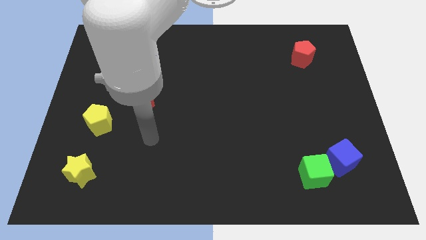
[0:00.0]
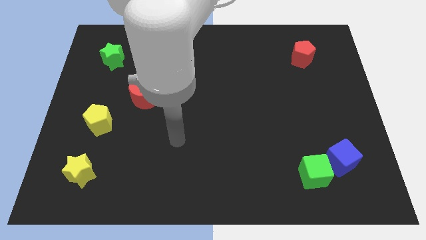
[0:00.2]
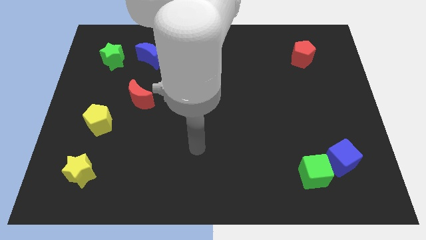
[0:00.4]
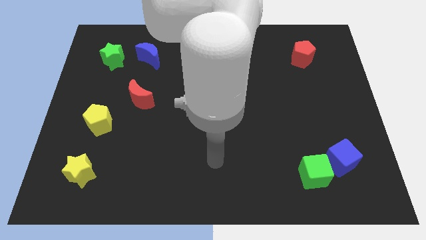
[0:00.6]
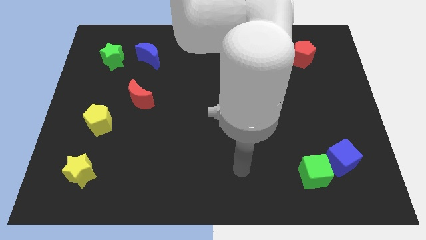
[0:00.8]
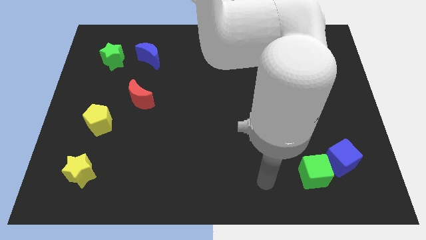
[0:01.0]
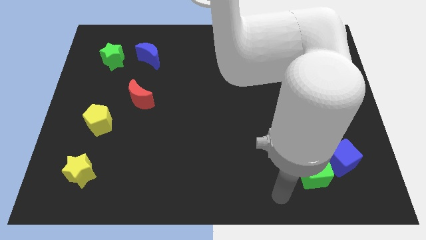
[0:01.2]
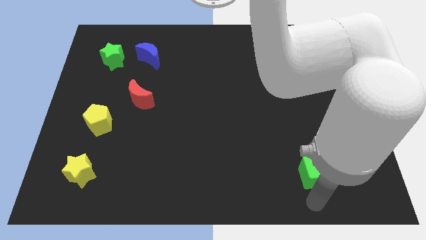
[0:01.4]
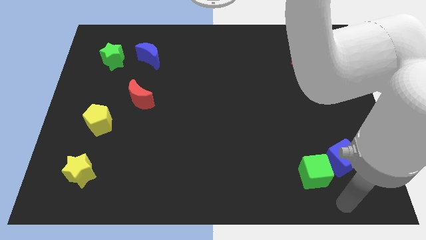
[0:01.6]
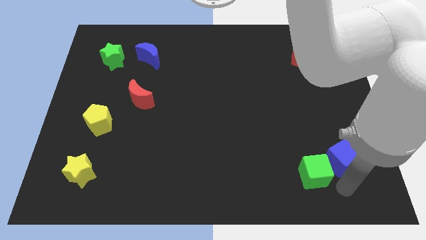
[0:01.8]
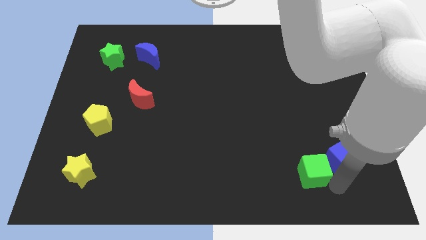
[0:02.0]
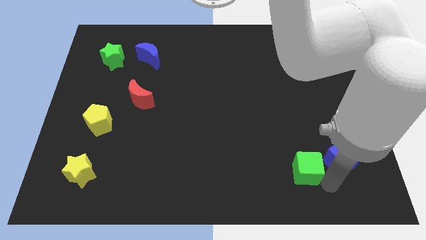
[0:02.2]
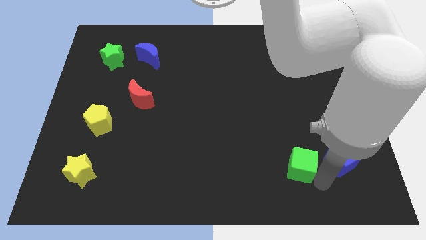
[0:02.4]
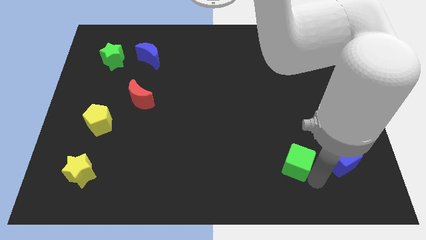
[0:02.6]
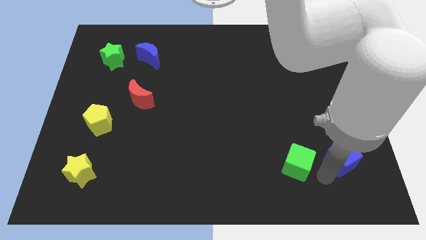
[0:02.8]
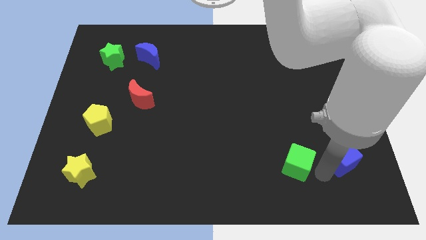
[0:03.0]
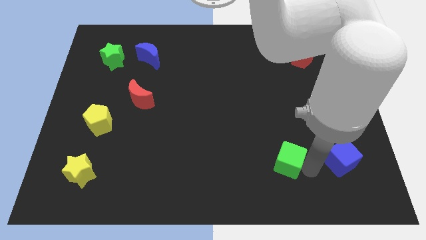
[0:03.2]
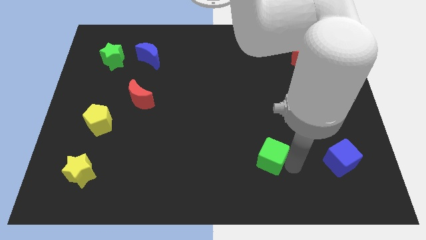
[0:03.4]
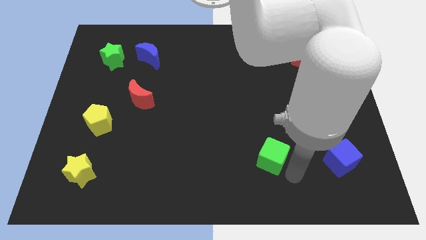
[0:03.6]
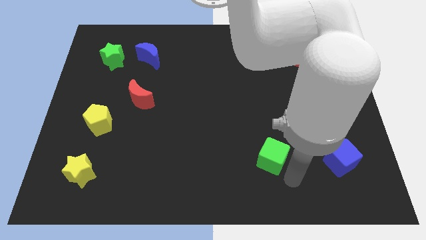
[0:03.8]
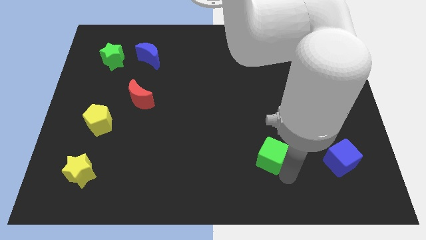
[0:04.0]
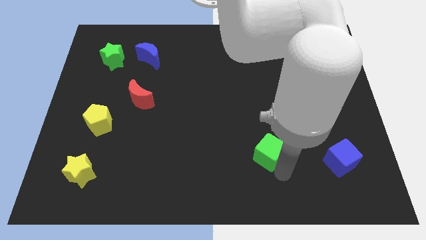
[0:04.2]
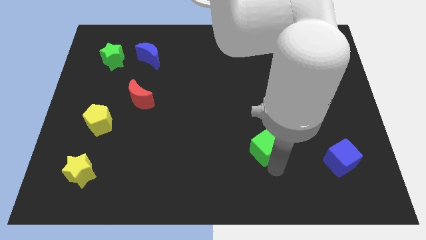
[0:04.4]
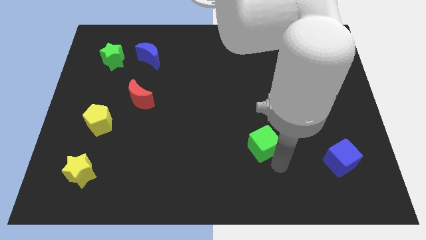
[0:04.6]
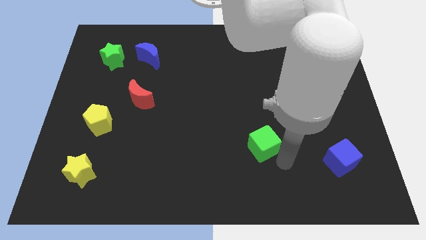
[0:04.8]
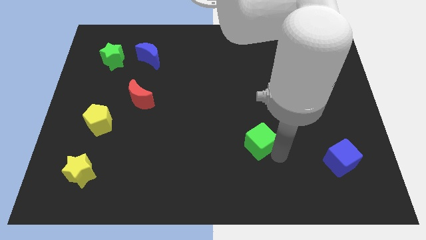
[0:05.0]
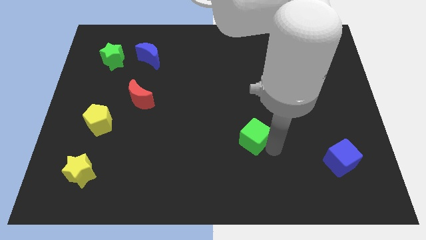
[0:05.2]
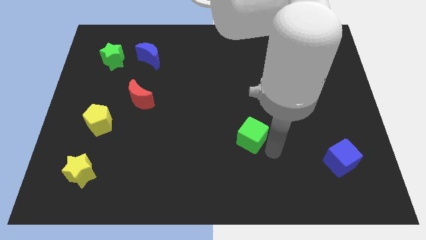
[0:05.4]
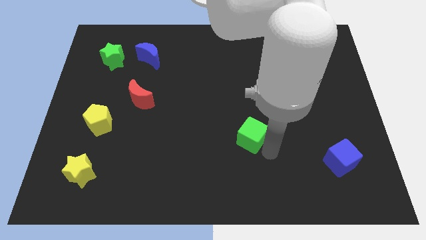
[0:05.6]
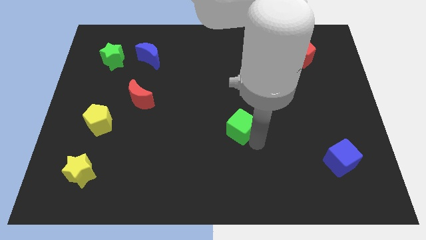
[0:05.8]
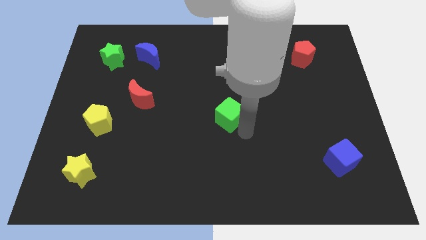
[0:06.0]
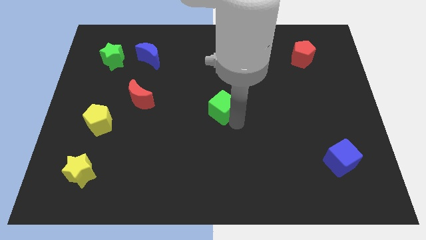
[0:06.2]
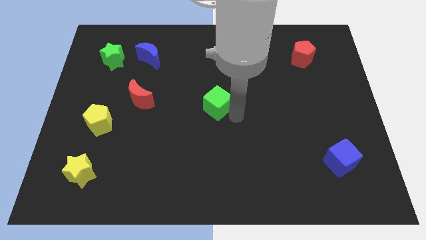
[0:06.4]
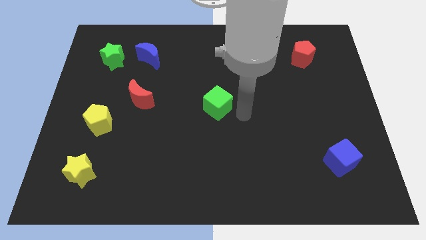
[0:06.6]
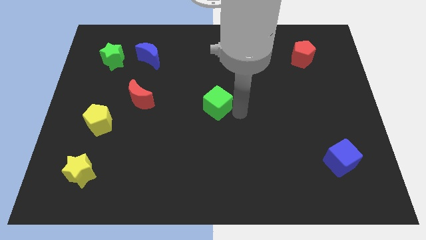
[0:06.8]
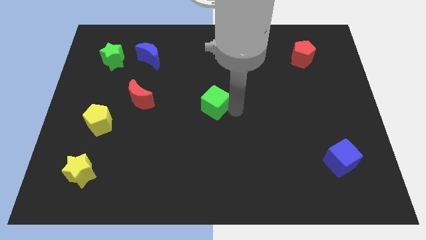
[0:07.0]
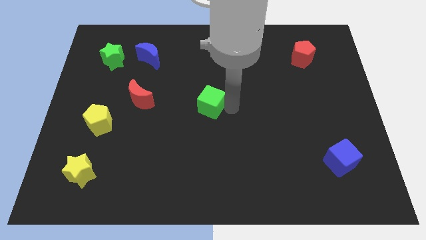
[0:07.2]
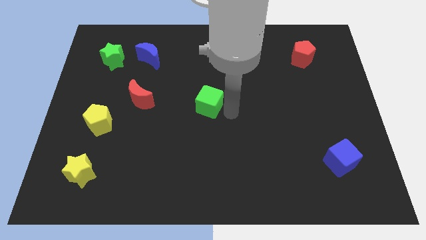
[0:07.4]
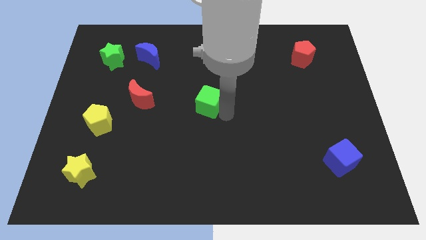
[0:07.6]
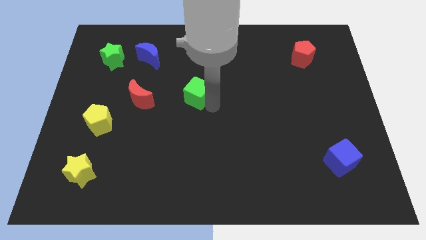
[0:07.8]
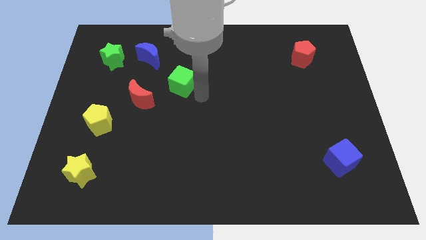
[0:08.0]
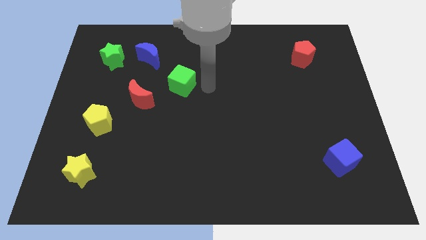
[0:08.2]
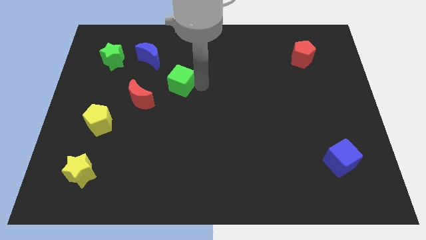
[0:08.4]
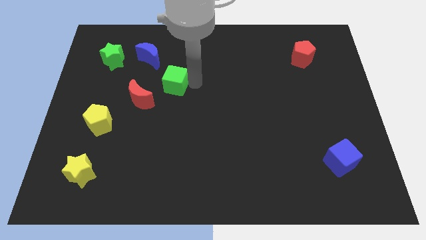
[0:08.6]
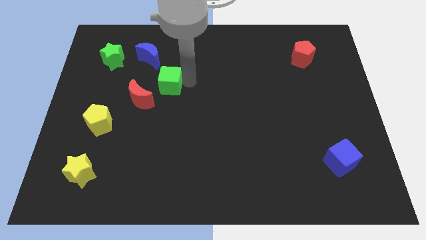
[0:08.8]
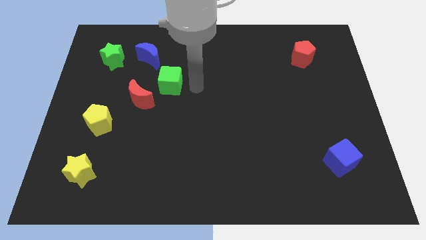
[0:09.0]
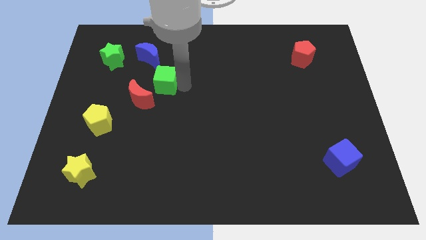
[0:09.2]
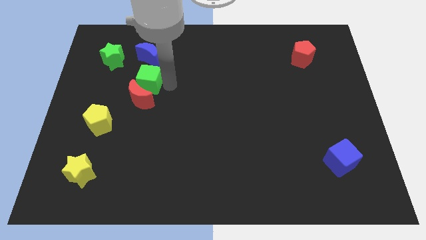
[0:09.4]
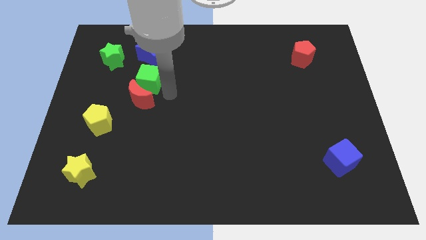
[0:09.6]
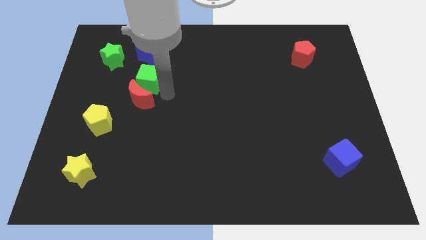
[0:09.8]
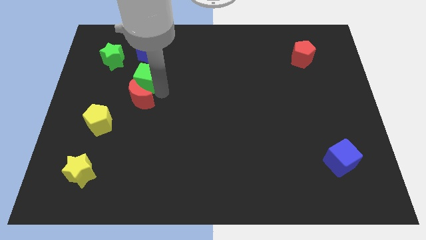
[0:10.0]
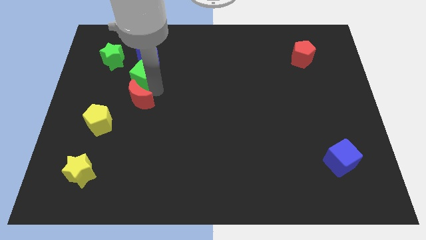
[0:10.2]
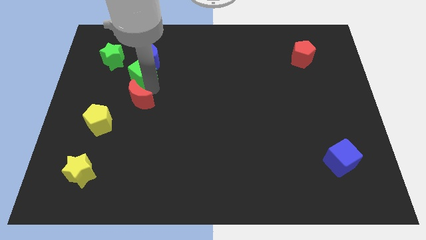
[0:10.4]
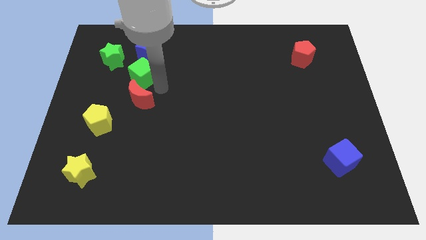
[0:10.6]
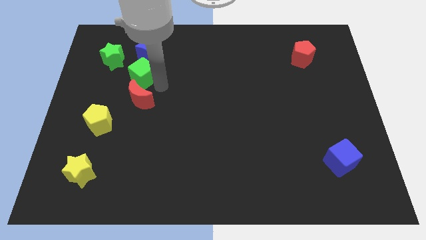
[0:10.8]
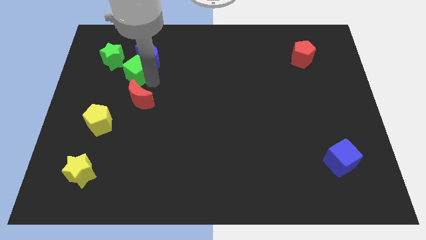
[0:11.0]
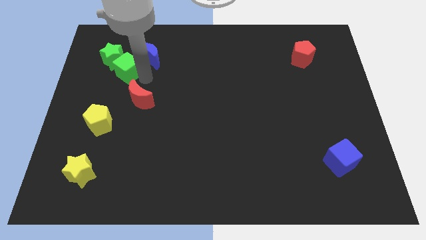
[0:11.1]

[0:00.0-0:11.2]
slide the green cube close to the green star
